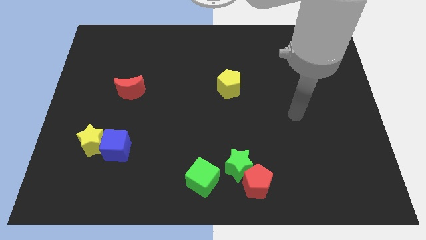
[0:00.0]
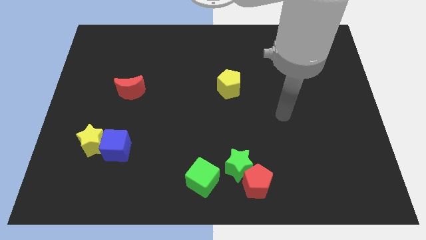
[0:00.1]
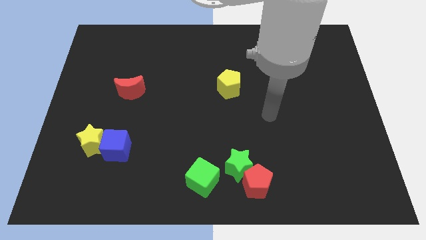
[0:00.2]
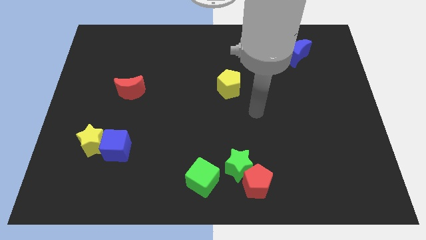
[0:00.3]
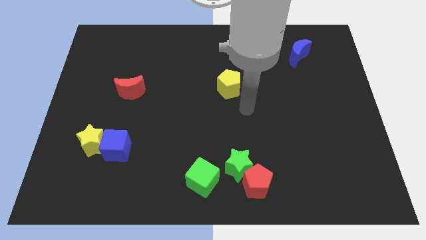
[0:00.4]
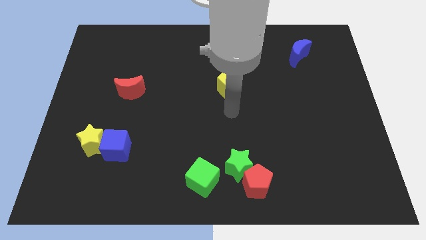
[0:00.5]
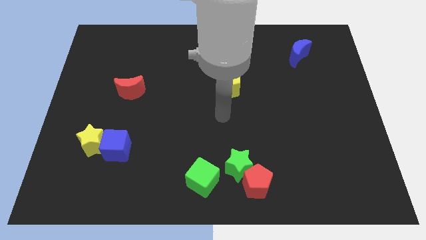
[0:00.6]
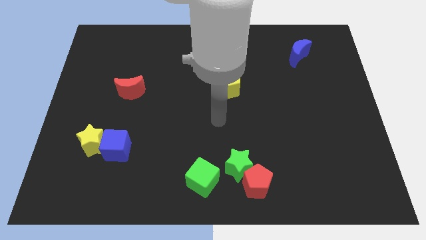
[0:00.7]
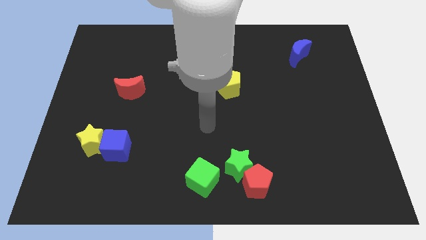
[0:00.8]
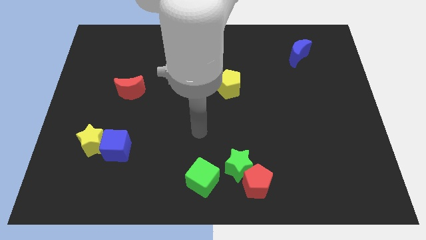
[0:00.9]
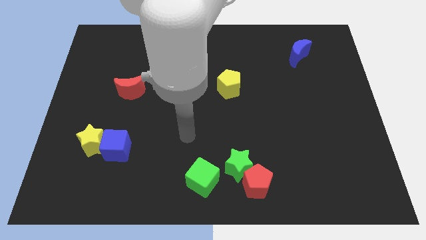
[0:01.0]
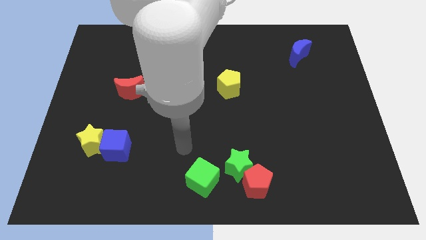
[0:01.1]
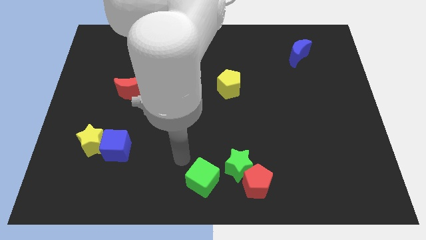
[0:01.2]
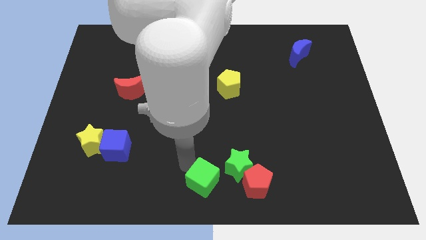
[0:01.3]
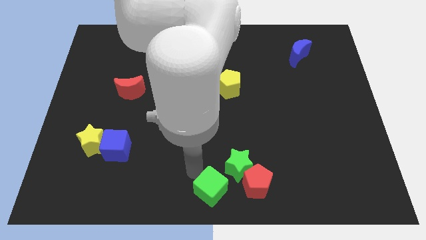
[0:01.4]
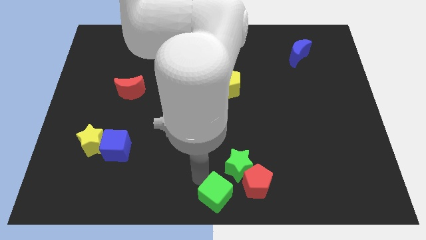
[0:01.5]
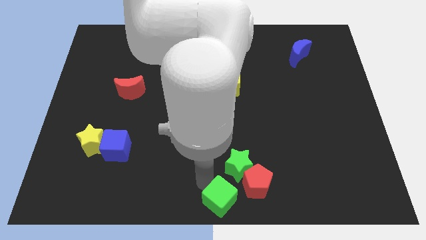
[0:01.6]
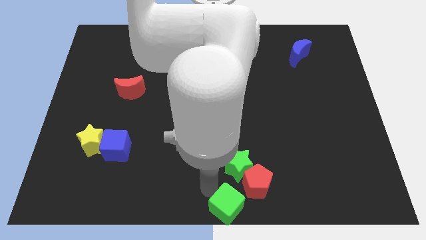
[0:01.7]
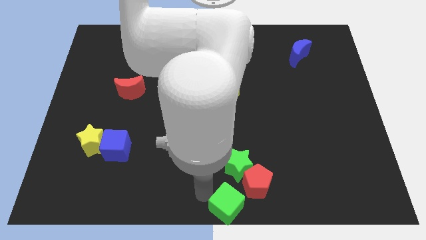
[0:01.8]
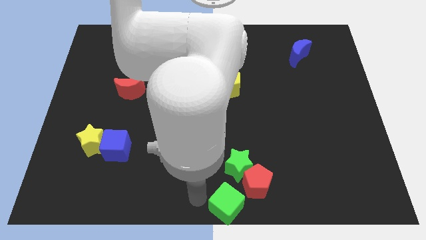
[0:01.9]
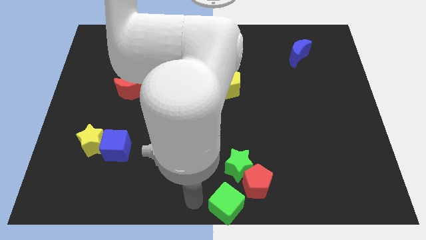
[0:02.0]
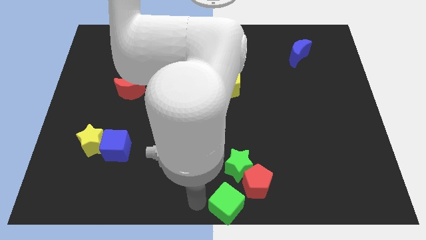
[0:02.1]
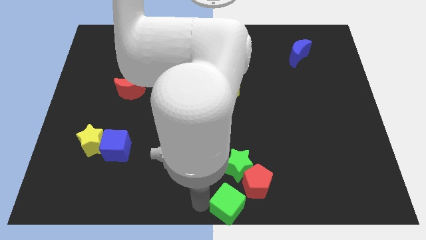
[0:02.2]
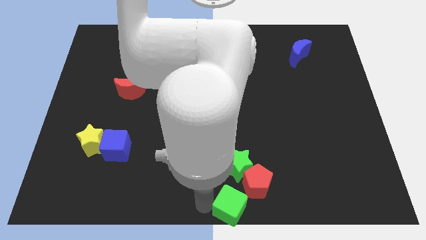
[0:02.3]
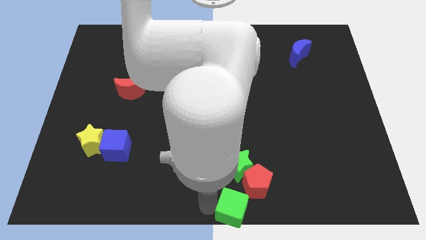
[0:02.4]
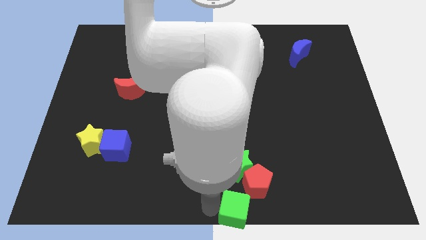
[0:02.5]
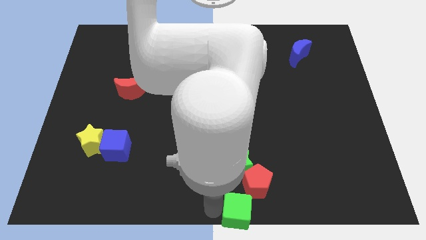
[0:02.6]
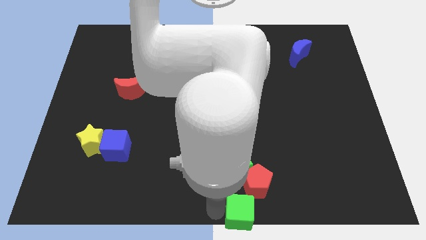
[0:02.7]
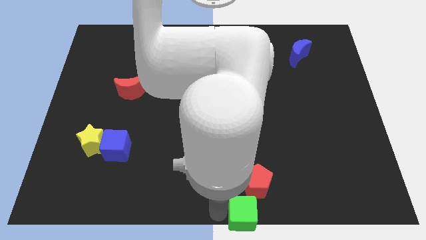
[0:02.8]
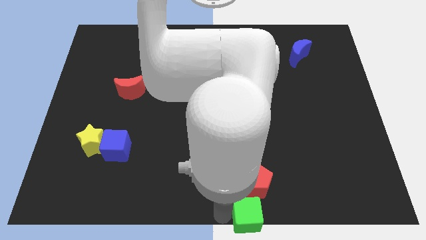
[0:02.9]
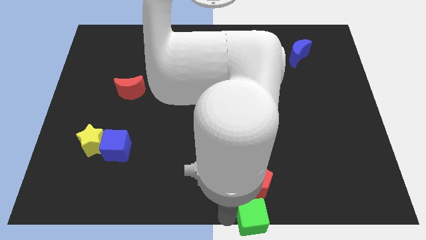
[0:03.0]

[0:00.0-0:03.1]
slide the green cube right a little bit

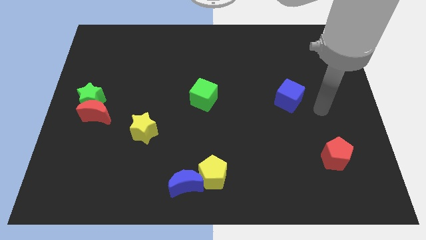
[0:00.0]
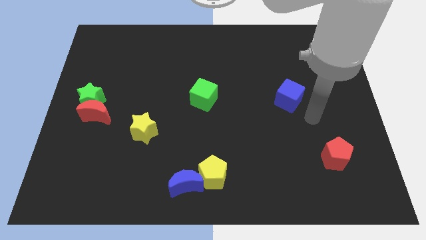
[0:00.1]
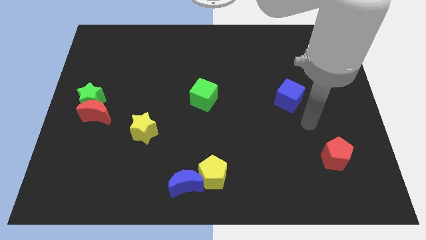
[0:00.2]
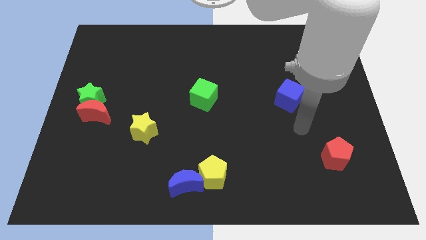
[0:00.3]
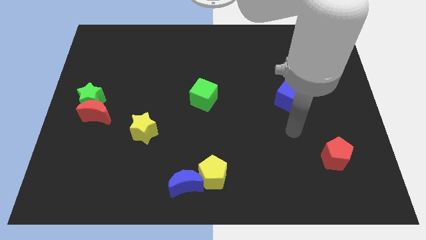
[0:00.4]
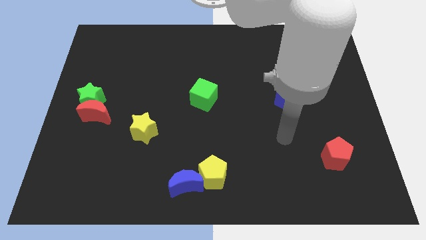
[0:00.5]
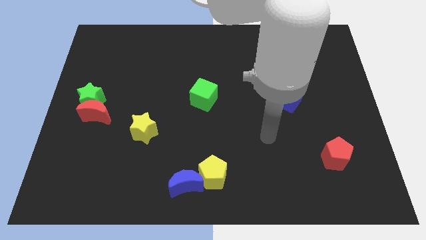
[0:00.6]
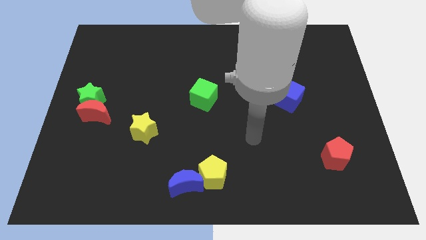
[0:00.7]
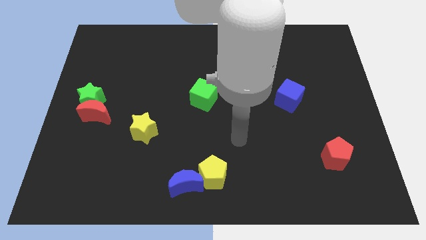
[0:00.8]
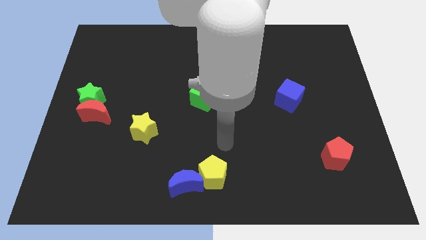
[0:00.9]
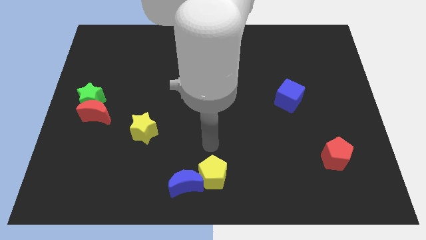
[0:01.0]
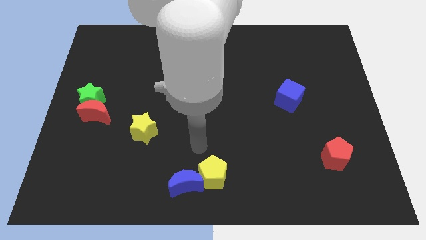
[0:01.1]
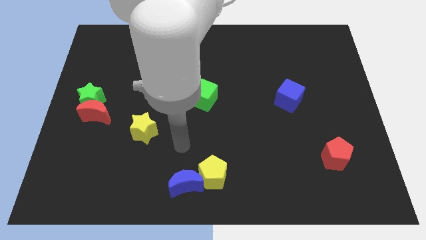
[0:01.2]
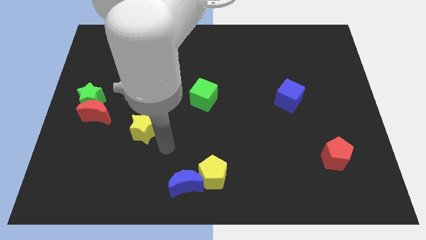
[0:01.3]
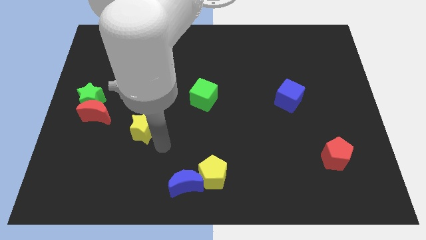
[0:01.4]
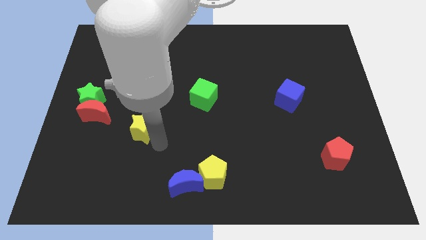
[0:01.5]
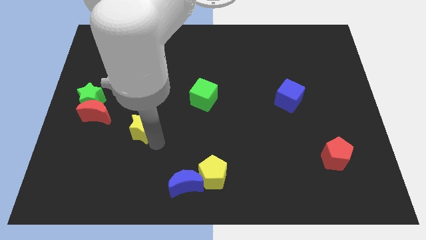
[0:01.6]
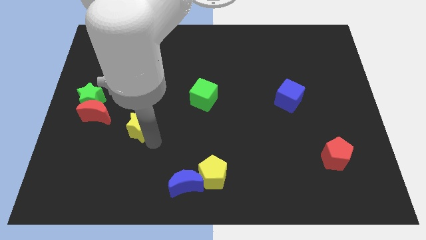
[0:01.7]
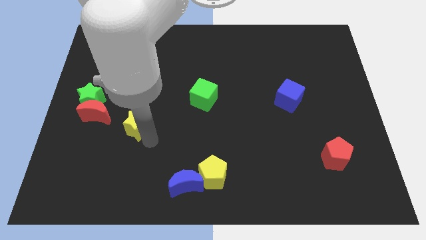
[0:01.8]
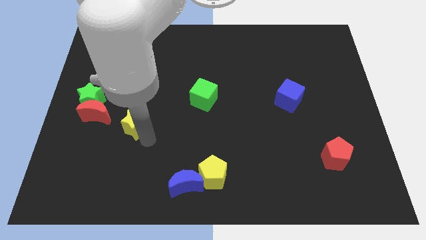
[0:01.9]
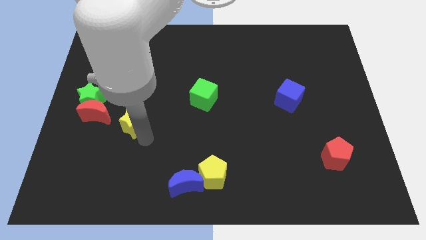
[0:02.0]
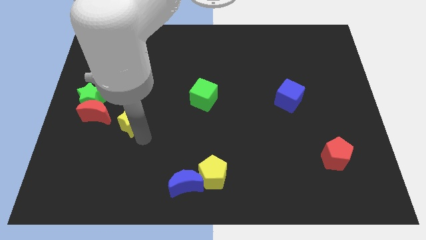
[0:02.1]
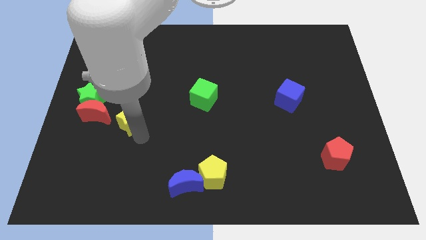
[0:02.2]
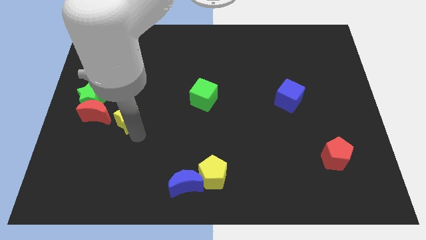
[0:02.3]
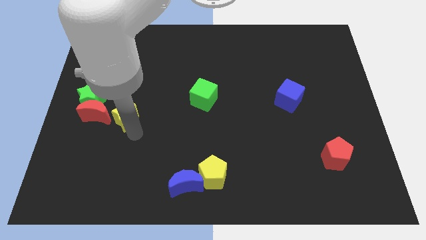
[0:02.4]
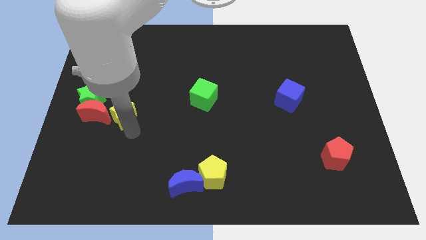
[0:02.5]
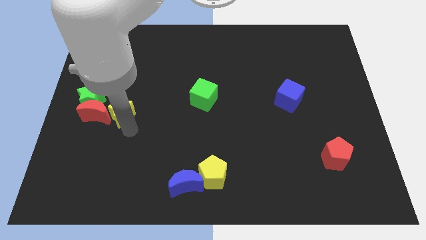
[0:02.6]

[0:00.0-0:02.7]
slide the yellow star upwards and then to the left a bit

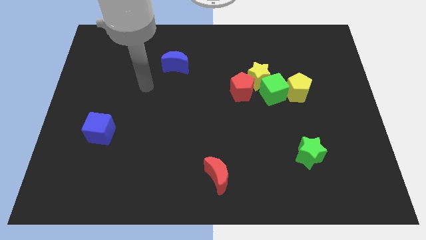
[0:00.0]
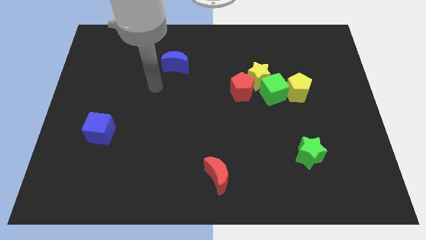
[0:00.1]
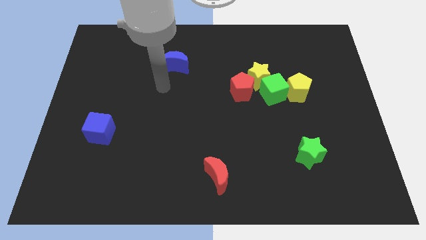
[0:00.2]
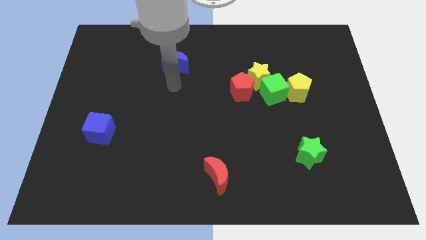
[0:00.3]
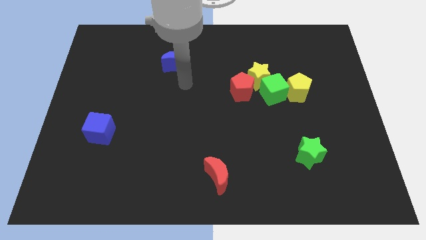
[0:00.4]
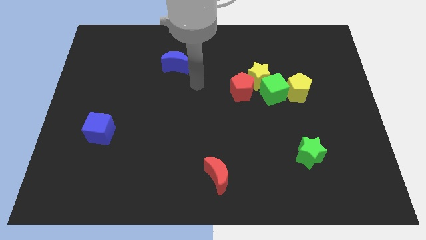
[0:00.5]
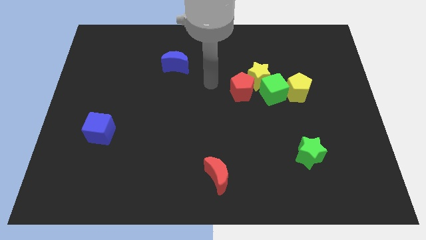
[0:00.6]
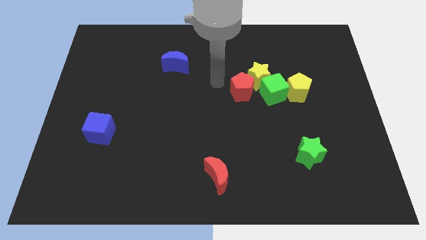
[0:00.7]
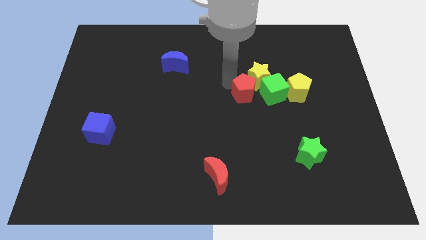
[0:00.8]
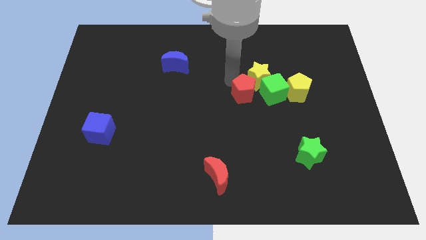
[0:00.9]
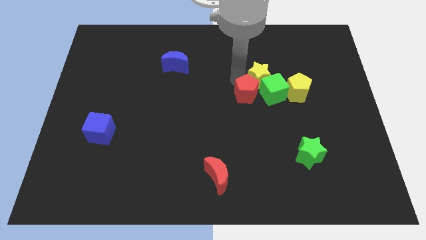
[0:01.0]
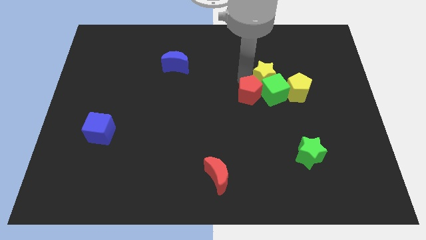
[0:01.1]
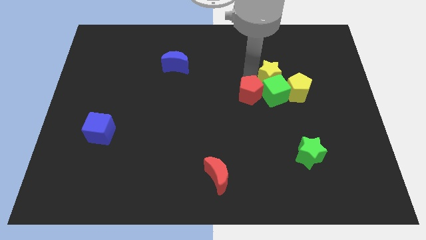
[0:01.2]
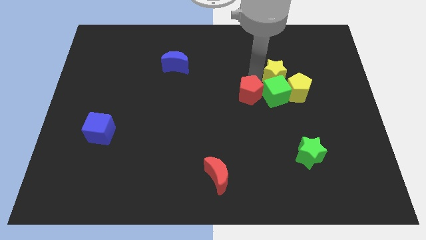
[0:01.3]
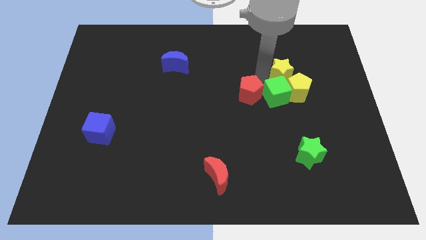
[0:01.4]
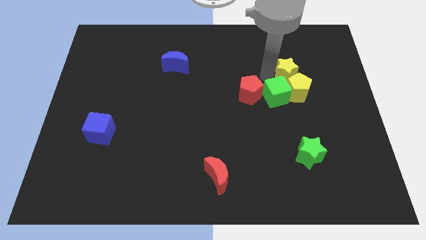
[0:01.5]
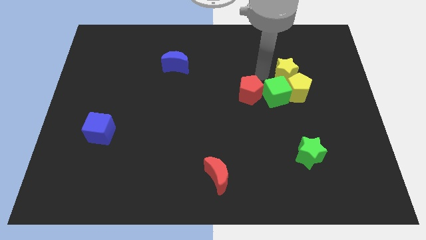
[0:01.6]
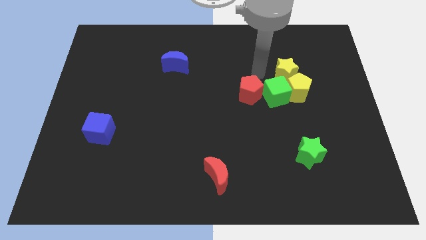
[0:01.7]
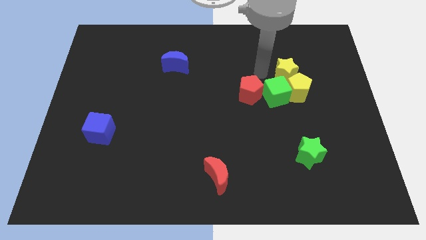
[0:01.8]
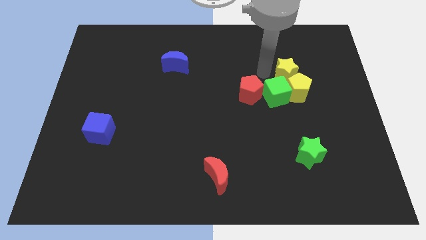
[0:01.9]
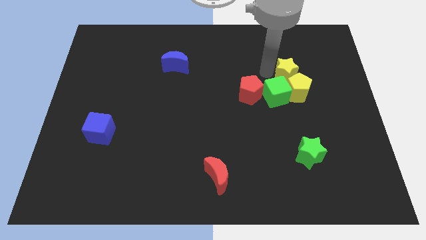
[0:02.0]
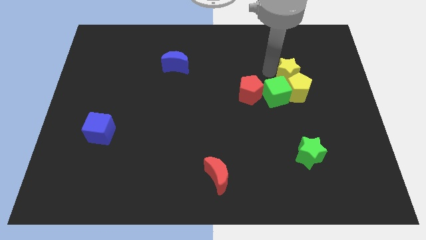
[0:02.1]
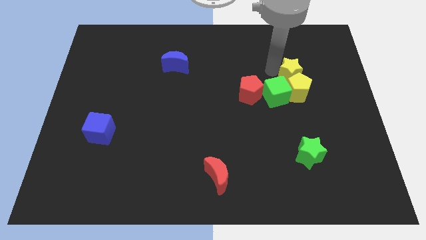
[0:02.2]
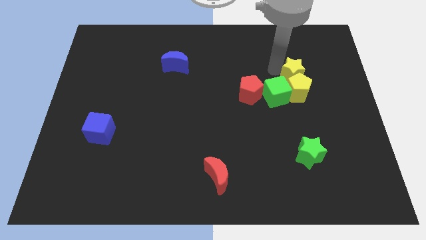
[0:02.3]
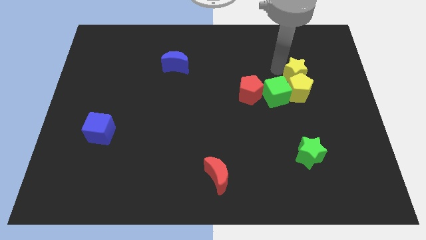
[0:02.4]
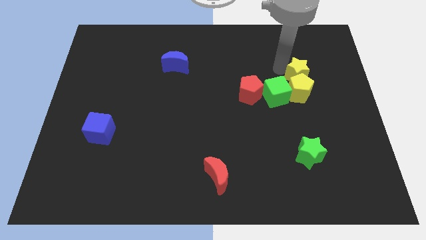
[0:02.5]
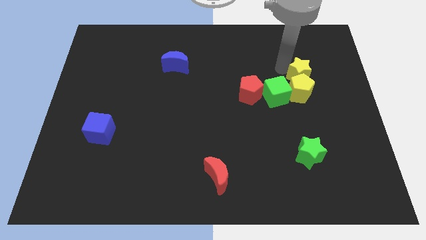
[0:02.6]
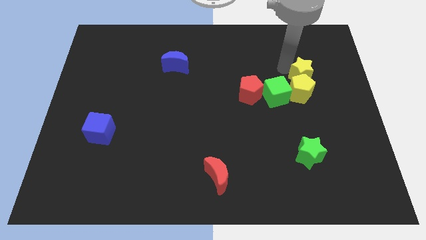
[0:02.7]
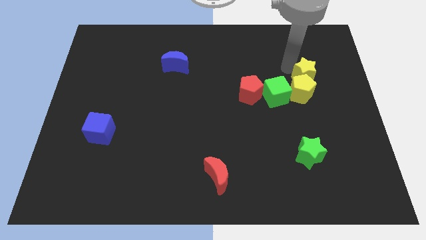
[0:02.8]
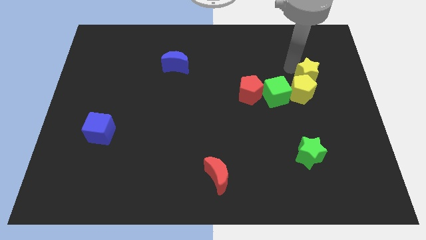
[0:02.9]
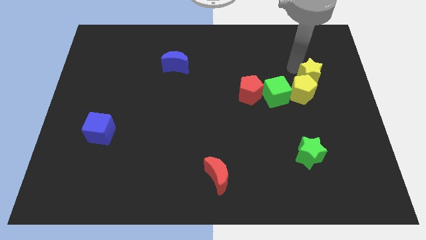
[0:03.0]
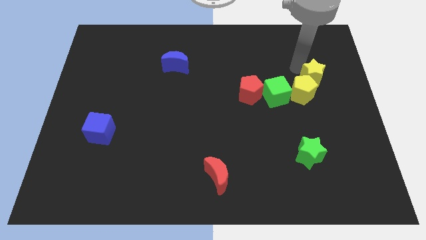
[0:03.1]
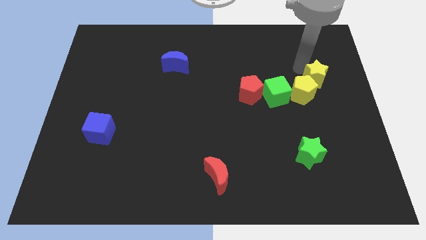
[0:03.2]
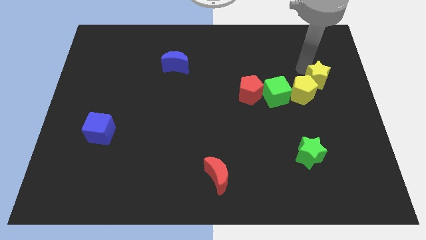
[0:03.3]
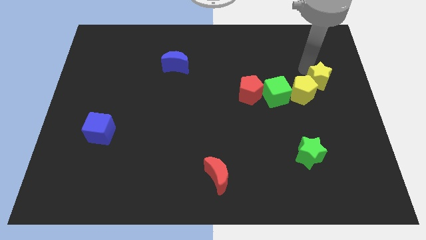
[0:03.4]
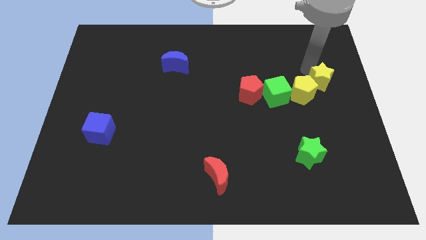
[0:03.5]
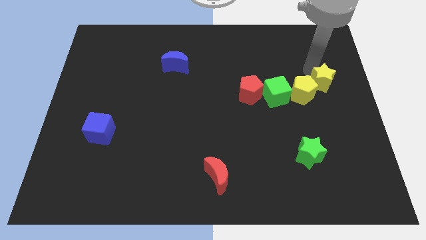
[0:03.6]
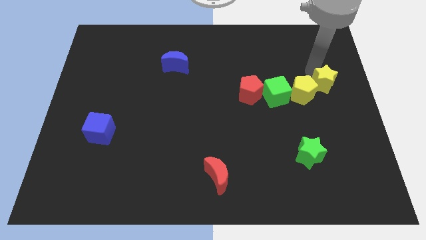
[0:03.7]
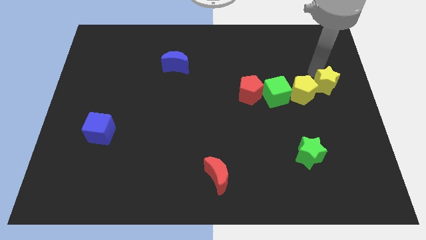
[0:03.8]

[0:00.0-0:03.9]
slightly push the yellow star down and to the right diagonally
